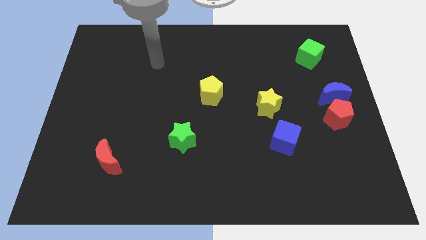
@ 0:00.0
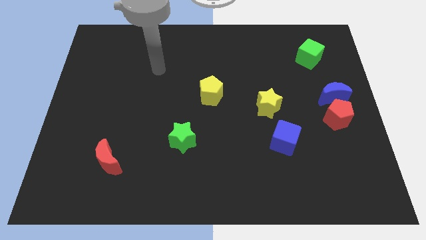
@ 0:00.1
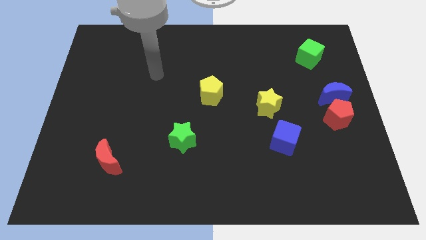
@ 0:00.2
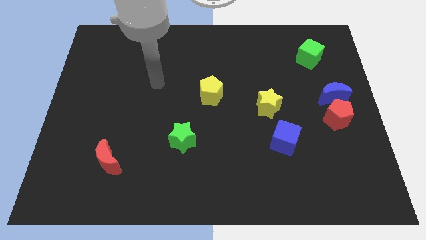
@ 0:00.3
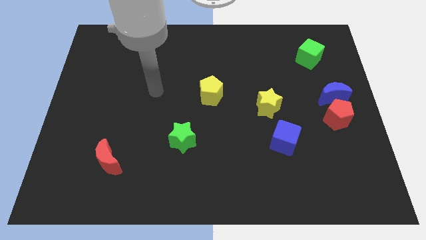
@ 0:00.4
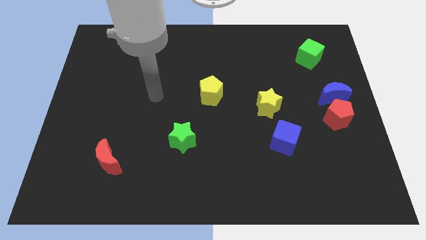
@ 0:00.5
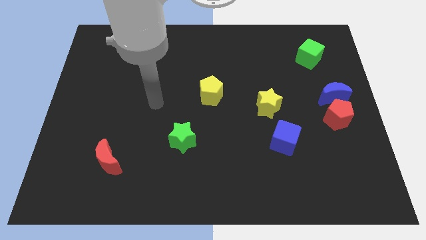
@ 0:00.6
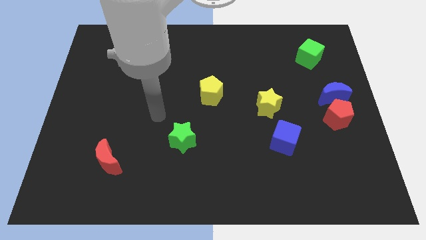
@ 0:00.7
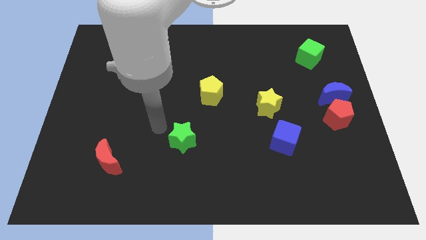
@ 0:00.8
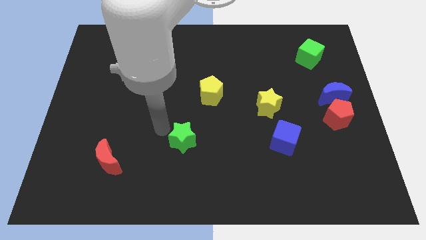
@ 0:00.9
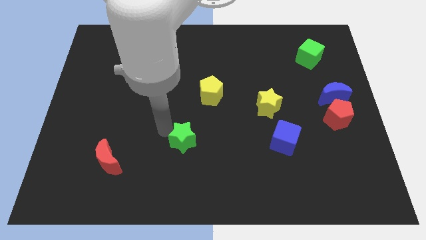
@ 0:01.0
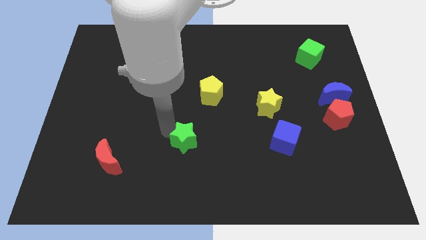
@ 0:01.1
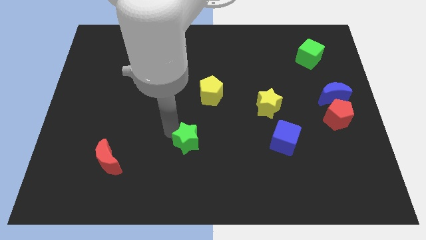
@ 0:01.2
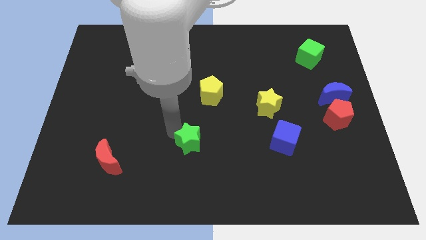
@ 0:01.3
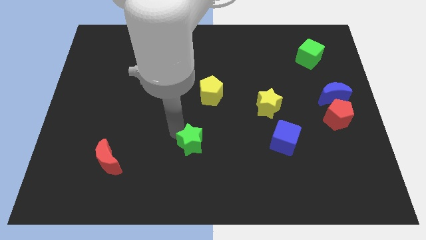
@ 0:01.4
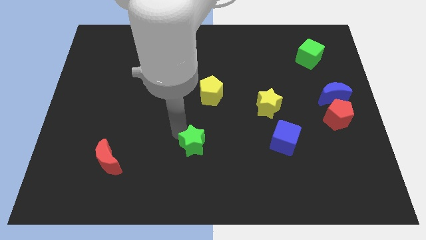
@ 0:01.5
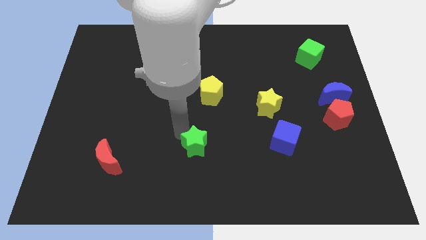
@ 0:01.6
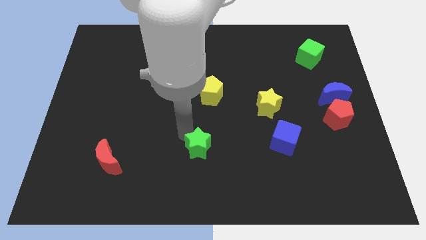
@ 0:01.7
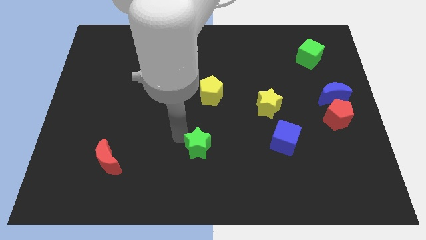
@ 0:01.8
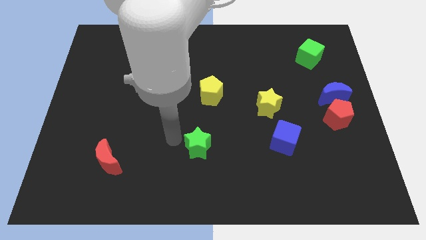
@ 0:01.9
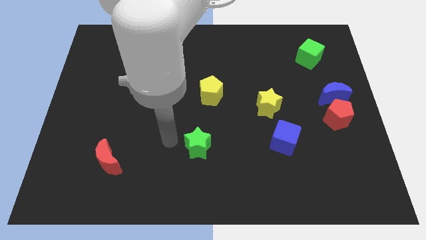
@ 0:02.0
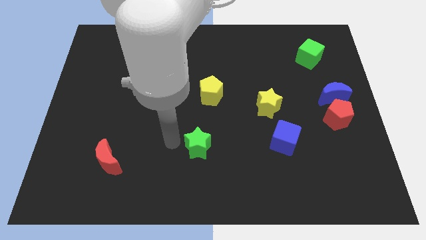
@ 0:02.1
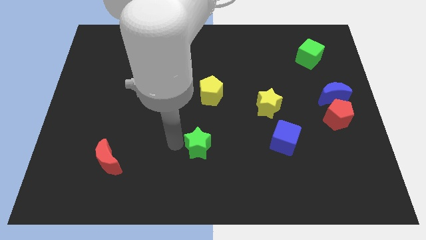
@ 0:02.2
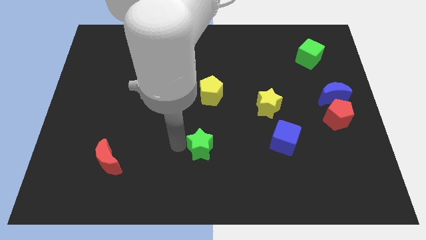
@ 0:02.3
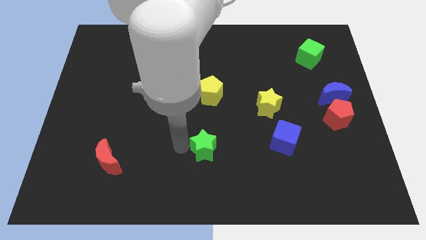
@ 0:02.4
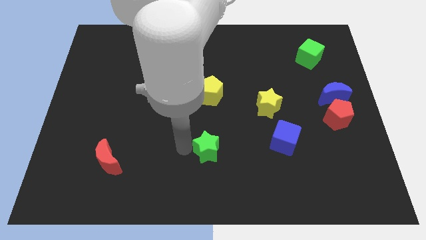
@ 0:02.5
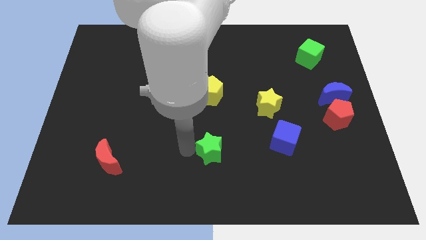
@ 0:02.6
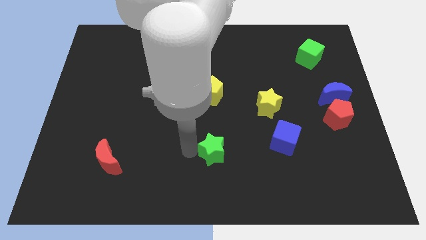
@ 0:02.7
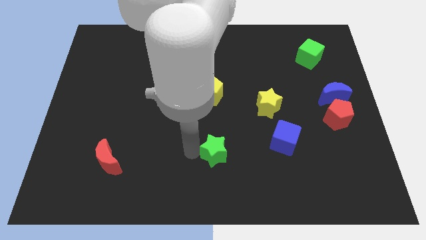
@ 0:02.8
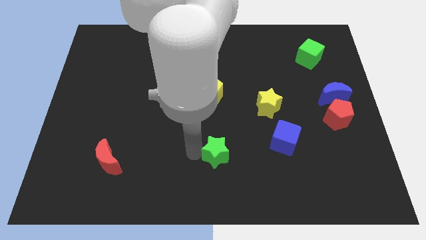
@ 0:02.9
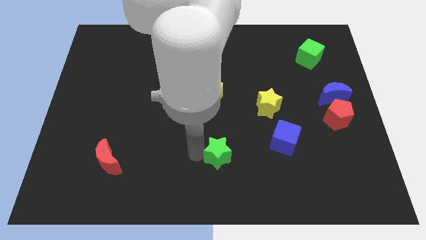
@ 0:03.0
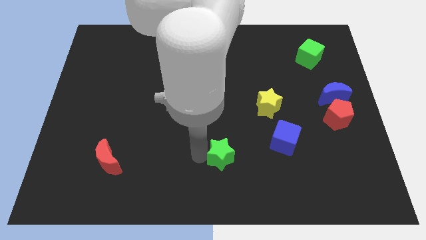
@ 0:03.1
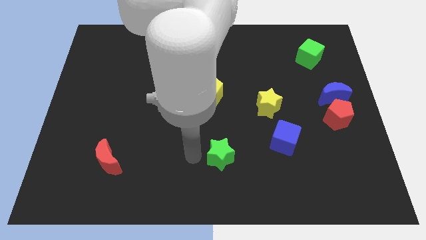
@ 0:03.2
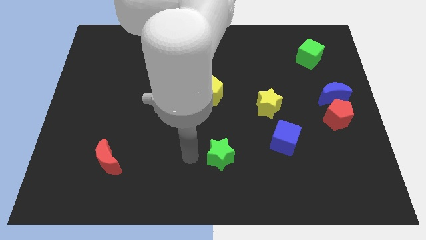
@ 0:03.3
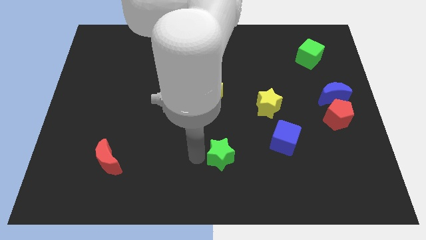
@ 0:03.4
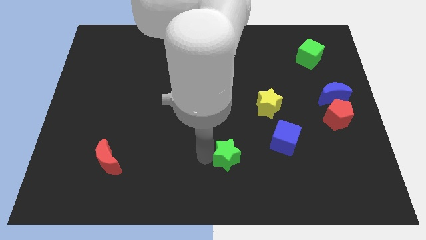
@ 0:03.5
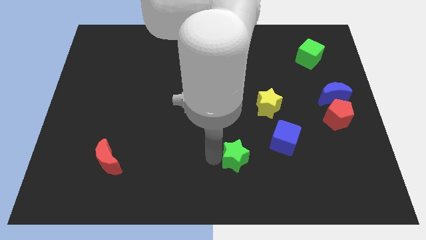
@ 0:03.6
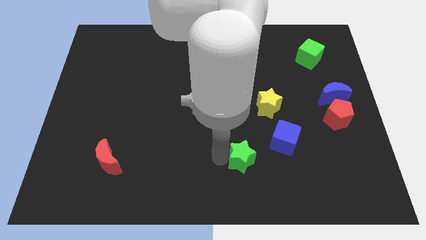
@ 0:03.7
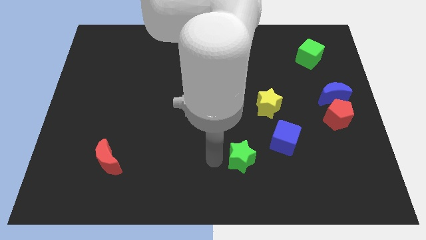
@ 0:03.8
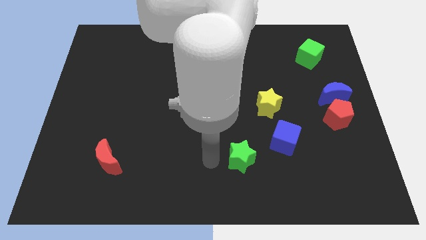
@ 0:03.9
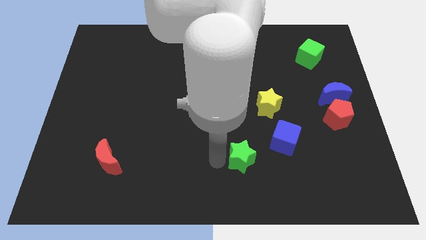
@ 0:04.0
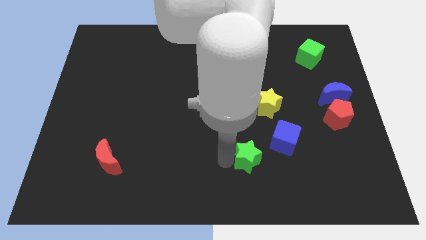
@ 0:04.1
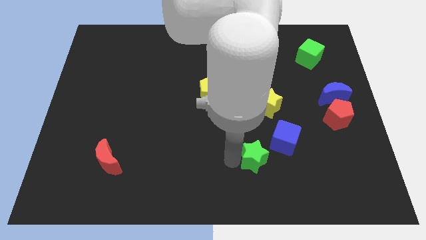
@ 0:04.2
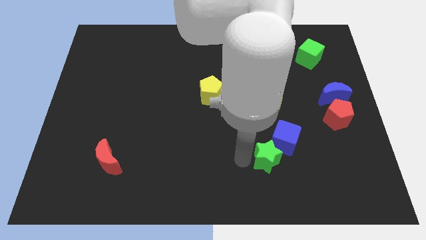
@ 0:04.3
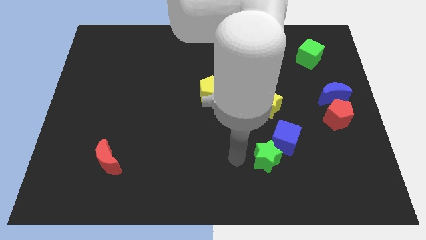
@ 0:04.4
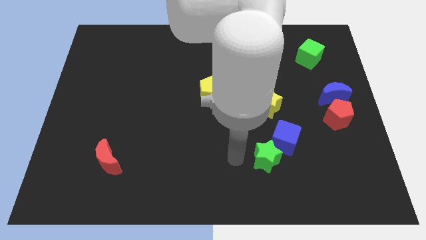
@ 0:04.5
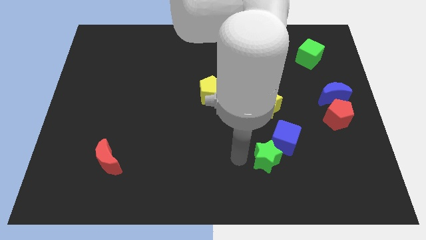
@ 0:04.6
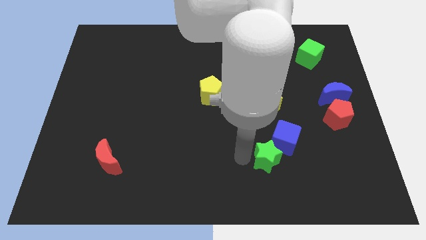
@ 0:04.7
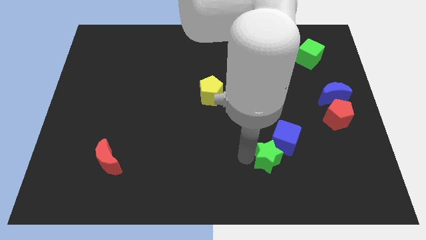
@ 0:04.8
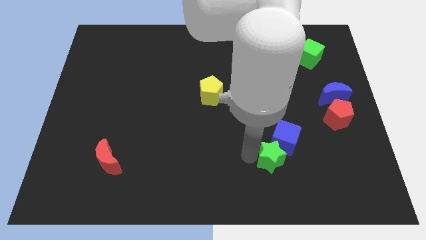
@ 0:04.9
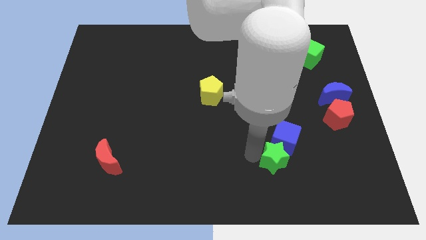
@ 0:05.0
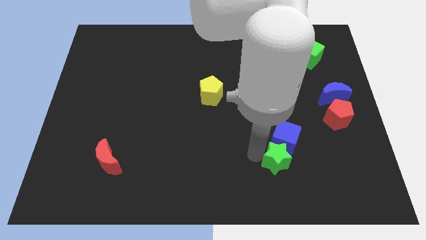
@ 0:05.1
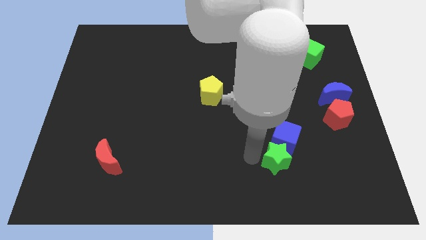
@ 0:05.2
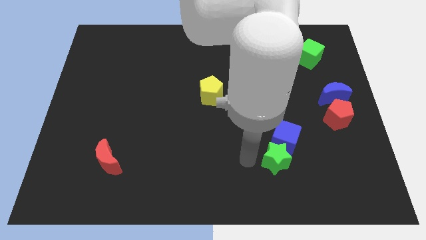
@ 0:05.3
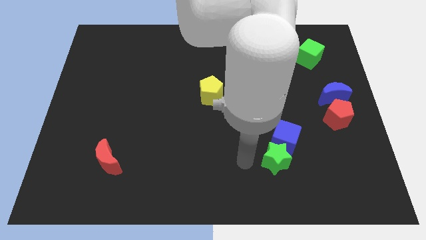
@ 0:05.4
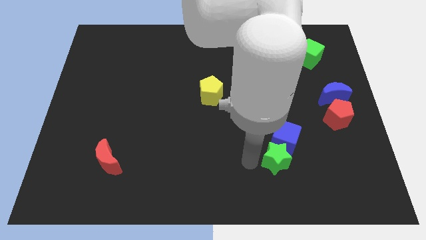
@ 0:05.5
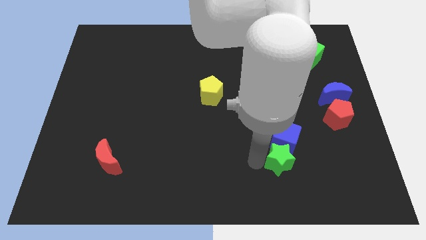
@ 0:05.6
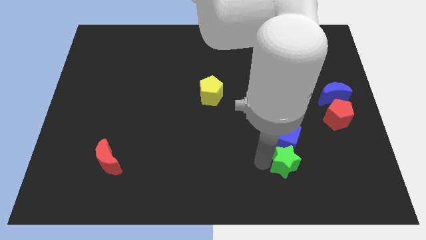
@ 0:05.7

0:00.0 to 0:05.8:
push the green star to the right

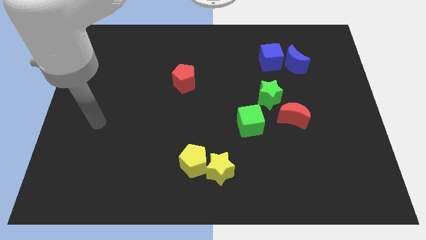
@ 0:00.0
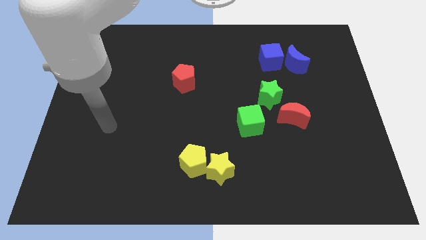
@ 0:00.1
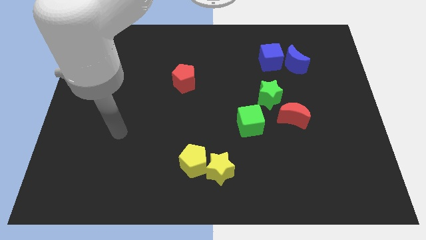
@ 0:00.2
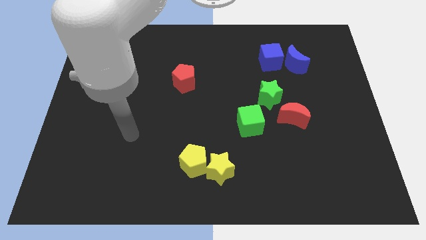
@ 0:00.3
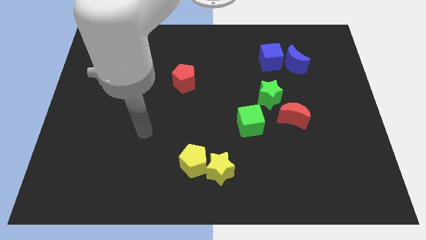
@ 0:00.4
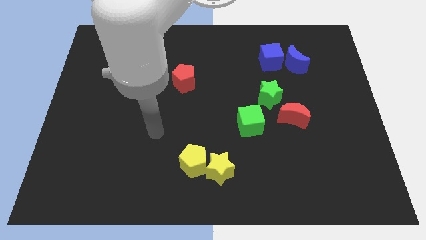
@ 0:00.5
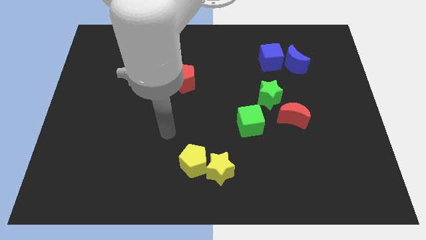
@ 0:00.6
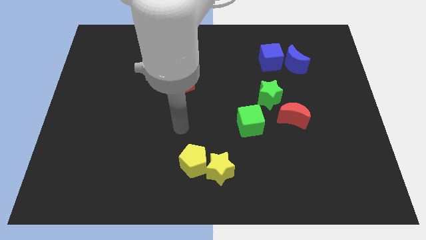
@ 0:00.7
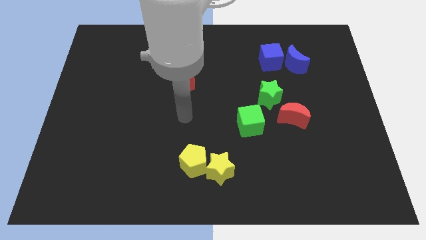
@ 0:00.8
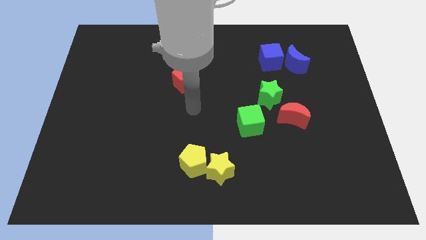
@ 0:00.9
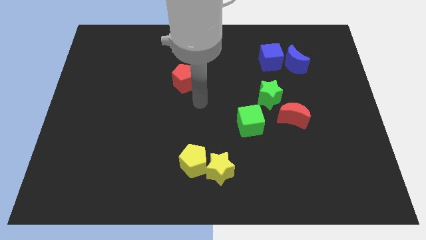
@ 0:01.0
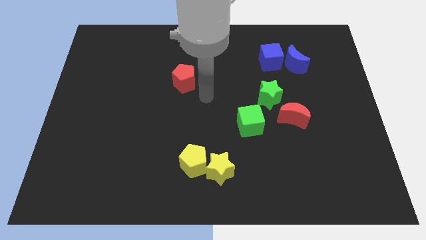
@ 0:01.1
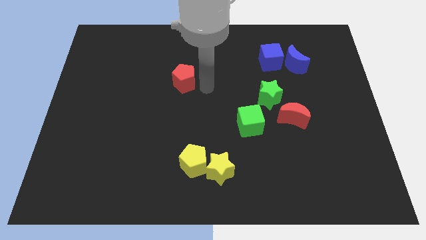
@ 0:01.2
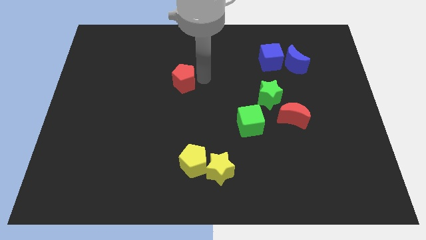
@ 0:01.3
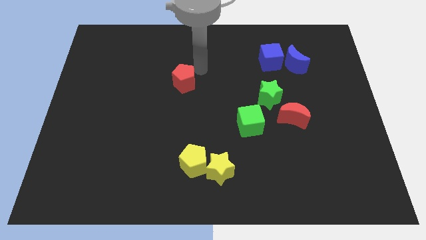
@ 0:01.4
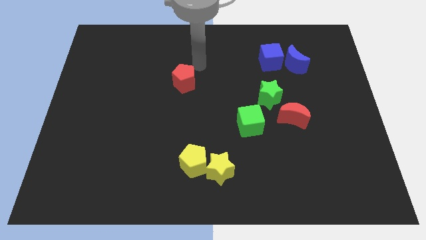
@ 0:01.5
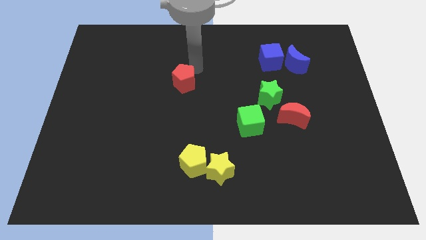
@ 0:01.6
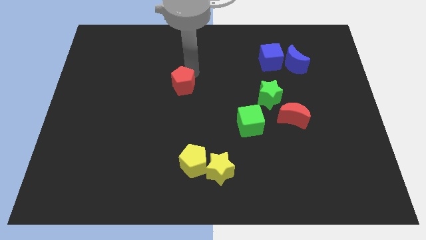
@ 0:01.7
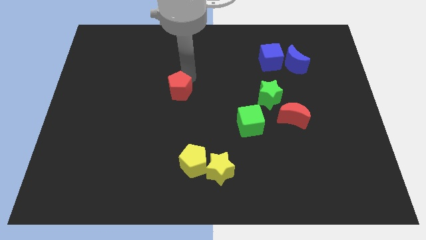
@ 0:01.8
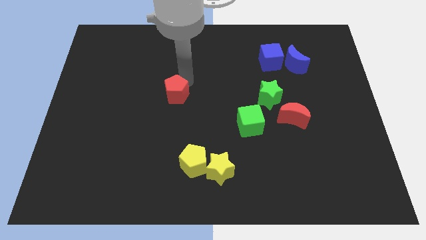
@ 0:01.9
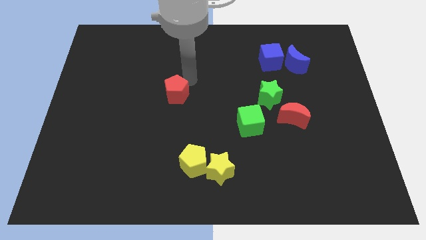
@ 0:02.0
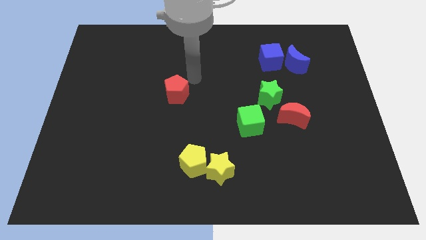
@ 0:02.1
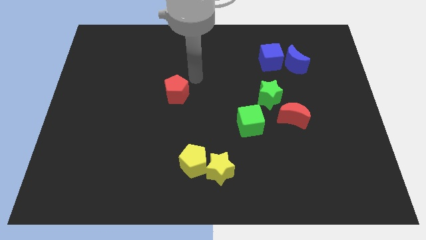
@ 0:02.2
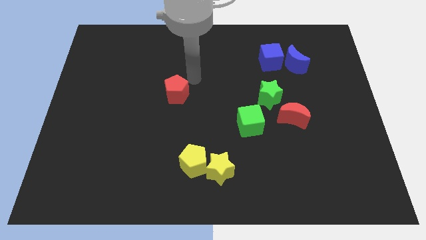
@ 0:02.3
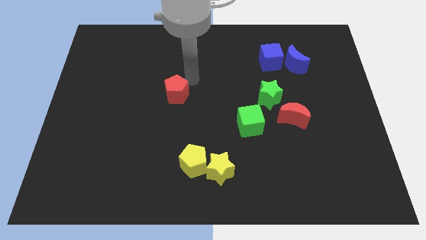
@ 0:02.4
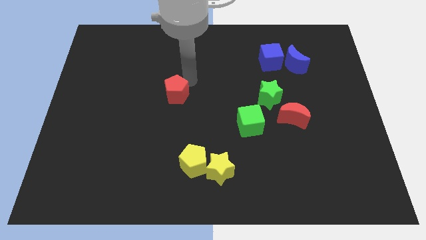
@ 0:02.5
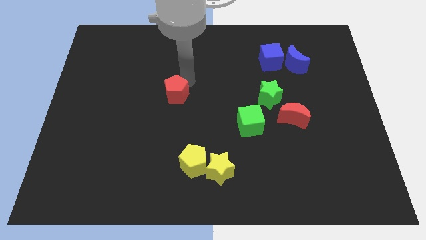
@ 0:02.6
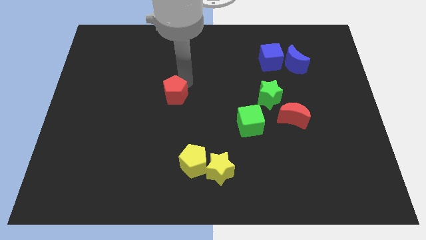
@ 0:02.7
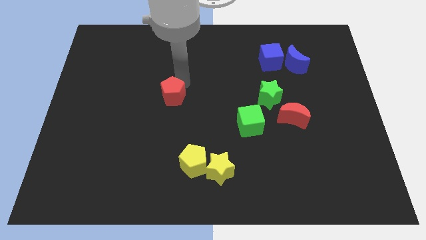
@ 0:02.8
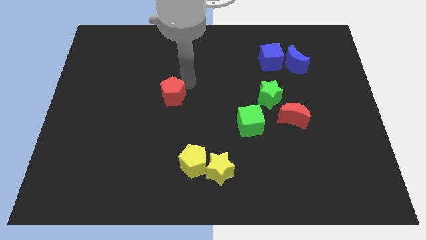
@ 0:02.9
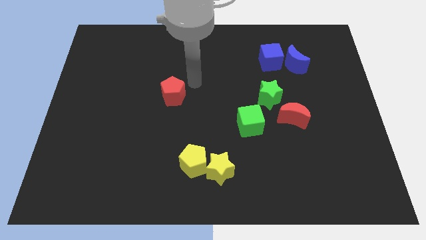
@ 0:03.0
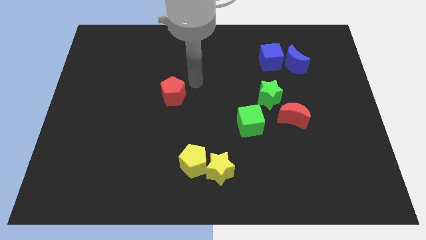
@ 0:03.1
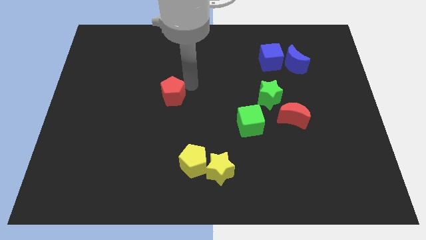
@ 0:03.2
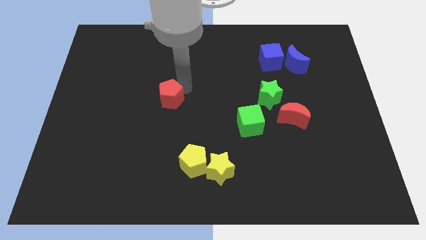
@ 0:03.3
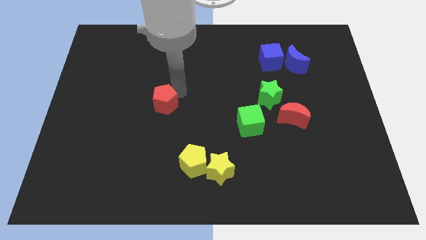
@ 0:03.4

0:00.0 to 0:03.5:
slightly push the red pentagon downwards and to the left diagonally
